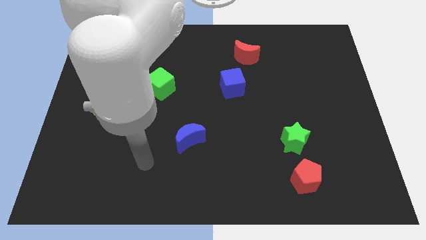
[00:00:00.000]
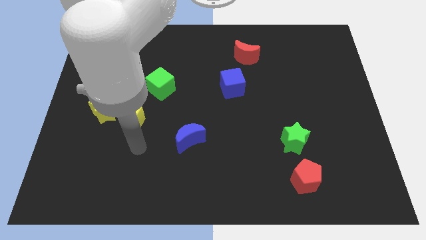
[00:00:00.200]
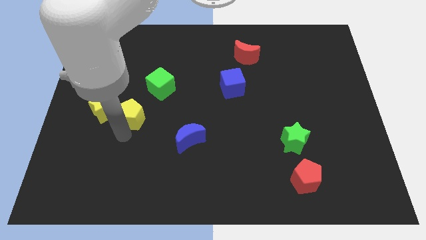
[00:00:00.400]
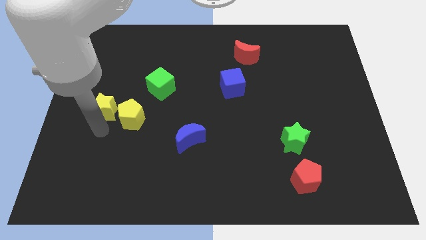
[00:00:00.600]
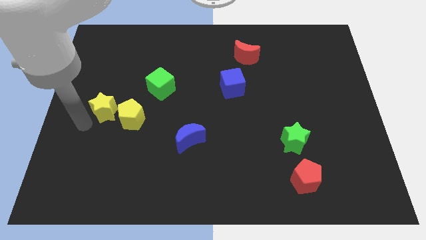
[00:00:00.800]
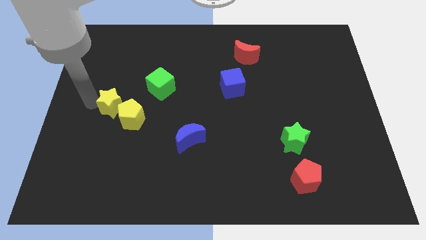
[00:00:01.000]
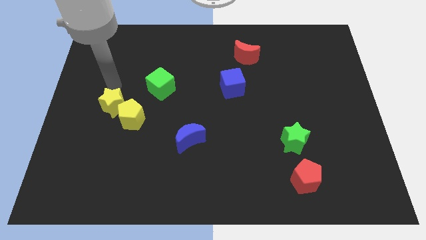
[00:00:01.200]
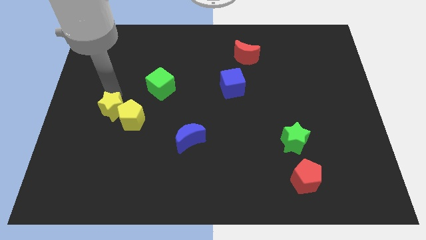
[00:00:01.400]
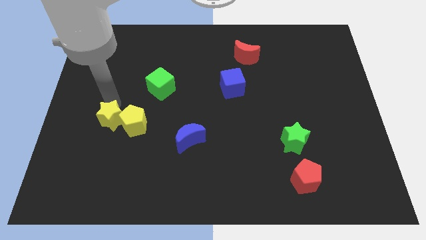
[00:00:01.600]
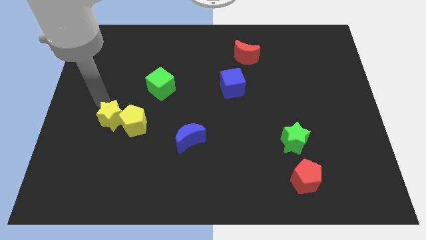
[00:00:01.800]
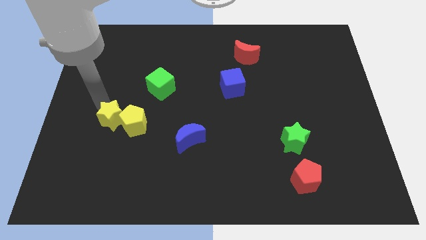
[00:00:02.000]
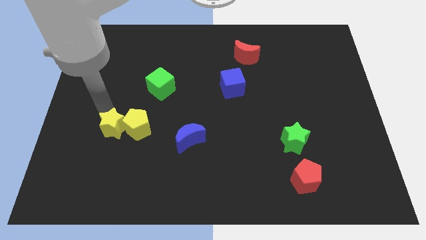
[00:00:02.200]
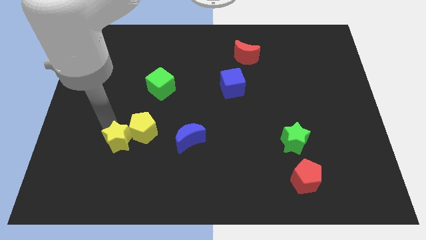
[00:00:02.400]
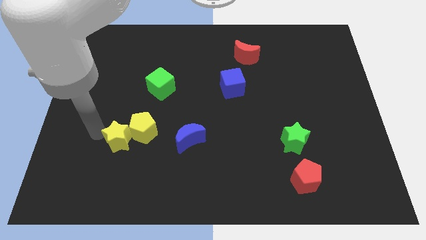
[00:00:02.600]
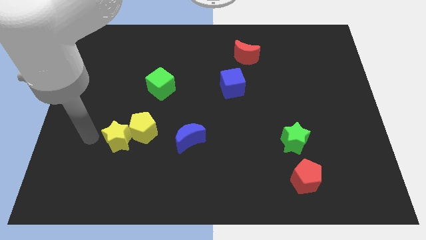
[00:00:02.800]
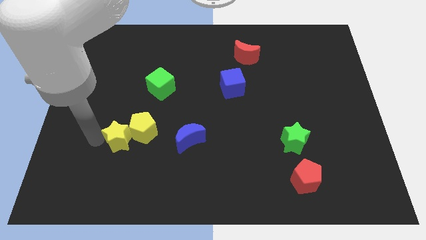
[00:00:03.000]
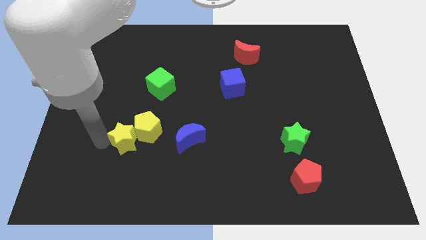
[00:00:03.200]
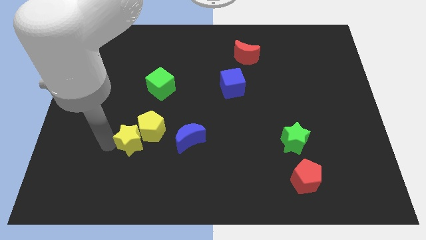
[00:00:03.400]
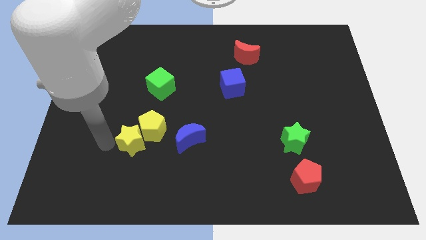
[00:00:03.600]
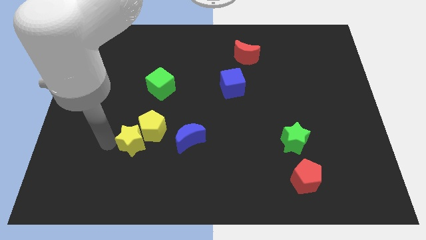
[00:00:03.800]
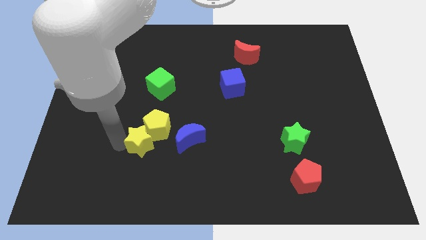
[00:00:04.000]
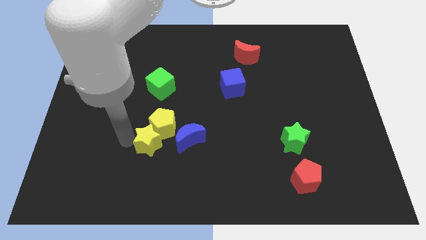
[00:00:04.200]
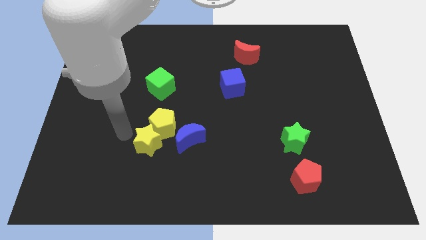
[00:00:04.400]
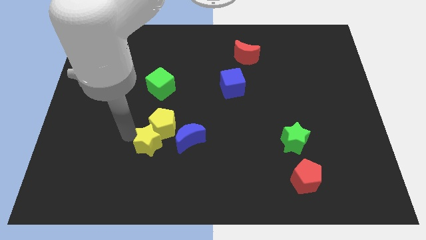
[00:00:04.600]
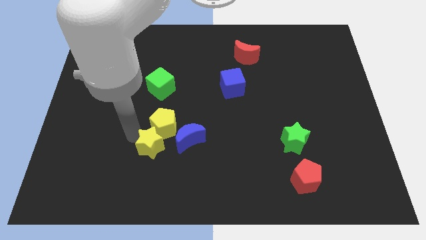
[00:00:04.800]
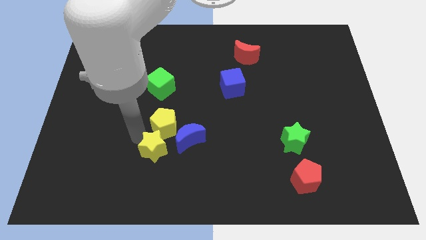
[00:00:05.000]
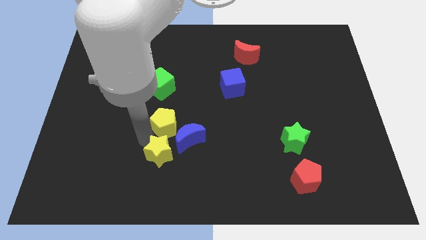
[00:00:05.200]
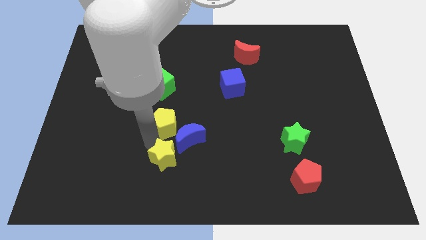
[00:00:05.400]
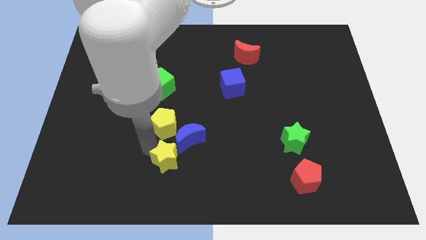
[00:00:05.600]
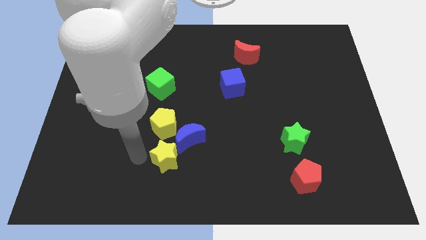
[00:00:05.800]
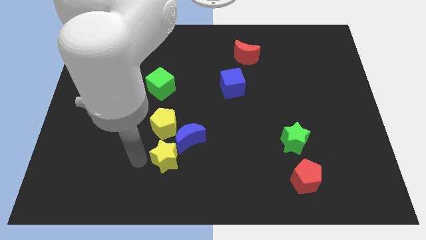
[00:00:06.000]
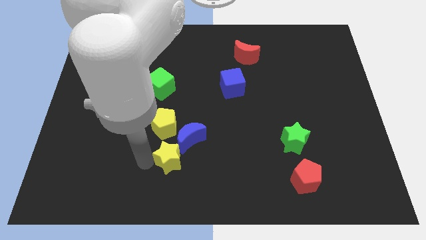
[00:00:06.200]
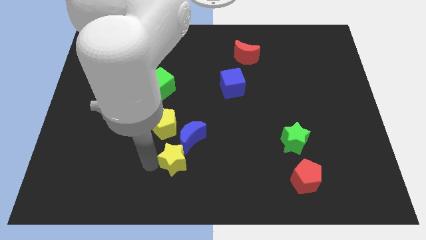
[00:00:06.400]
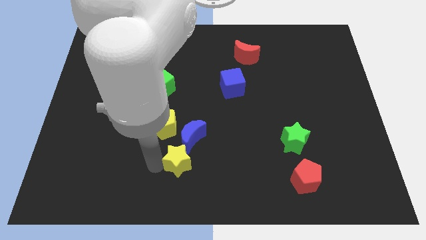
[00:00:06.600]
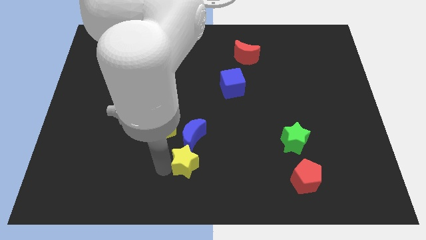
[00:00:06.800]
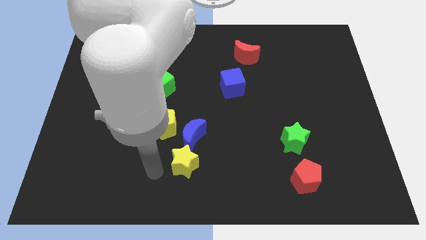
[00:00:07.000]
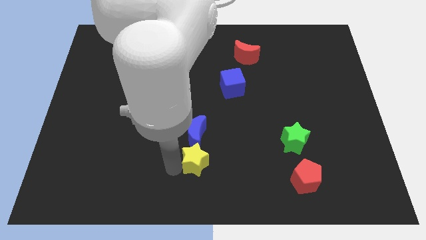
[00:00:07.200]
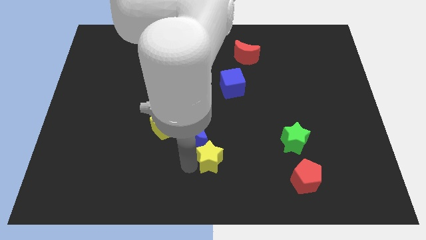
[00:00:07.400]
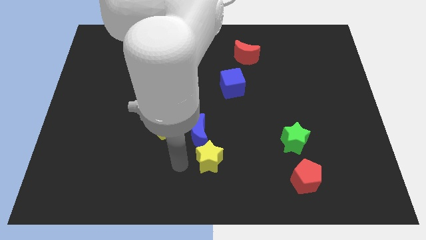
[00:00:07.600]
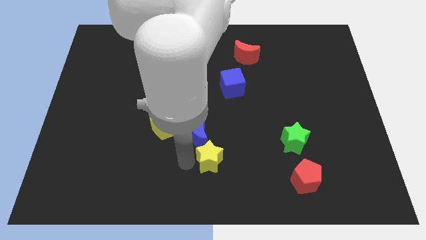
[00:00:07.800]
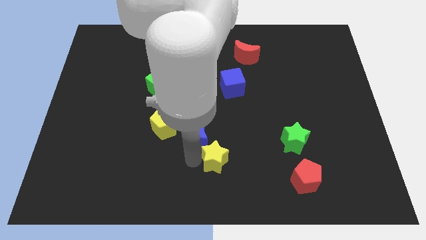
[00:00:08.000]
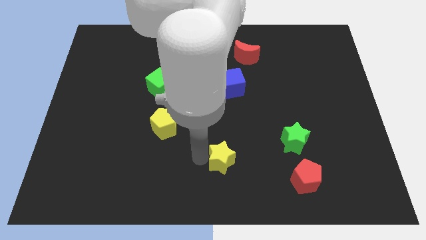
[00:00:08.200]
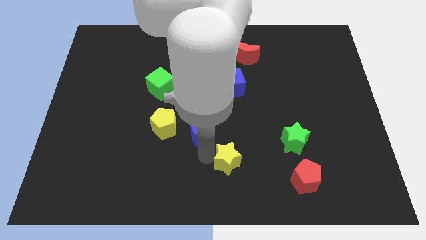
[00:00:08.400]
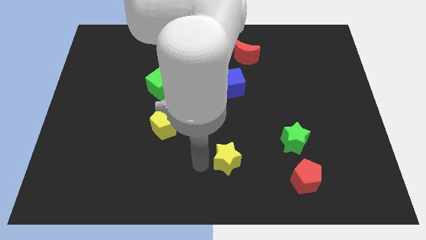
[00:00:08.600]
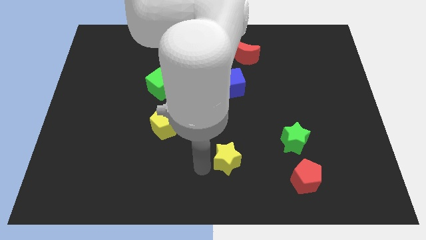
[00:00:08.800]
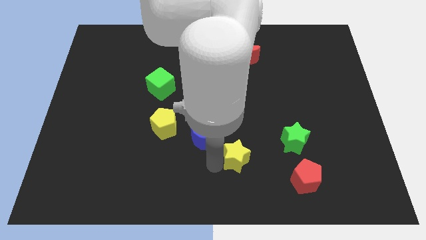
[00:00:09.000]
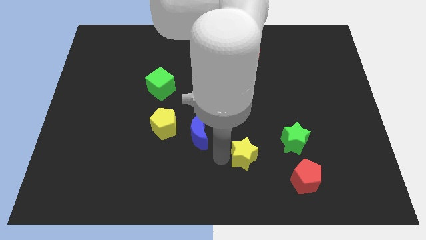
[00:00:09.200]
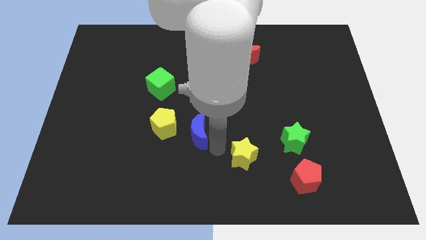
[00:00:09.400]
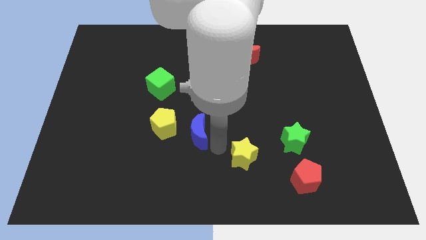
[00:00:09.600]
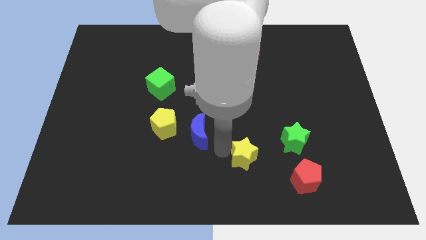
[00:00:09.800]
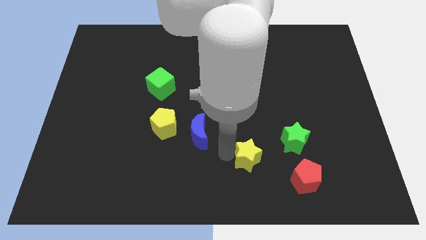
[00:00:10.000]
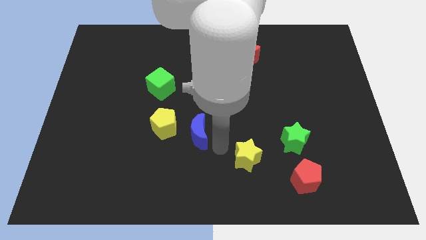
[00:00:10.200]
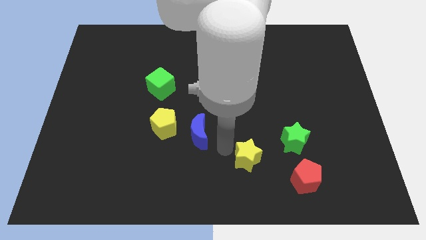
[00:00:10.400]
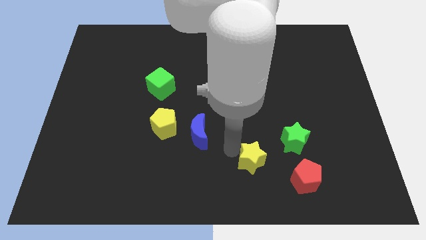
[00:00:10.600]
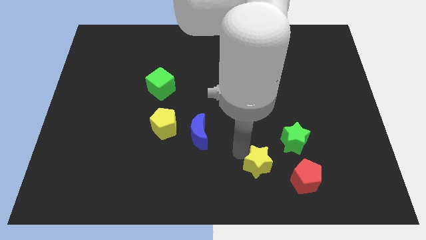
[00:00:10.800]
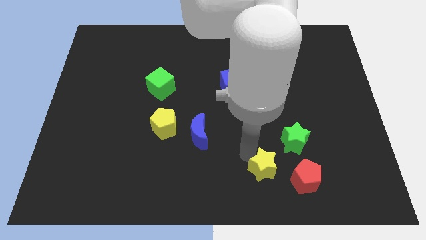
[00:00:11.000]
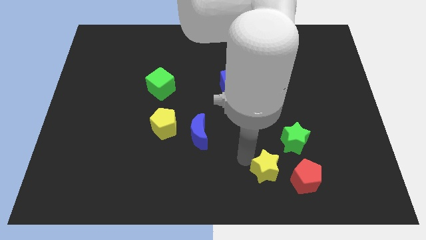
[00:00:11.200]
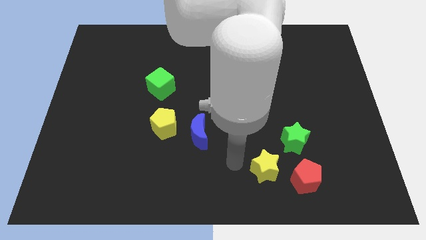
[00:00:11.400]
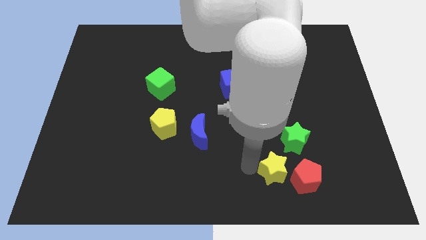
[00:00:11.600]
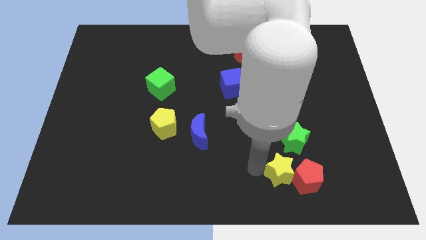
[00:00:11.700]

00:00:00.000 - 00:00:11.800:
slide the yellow star towards the red pentagon

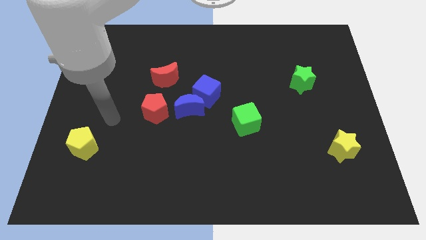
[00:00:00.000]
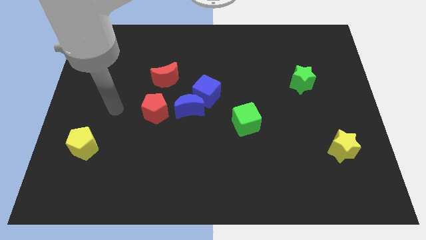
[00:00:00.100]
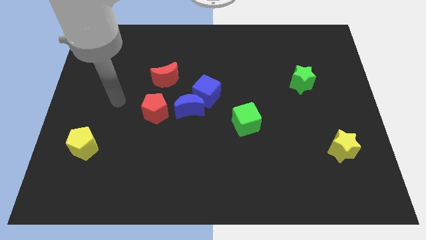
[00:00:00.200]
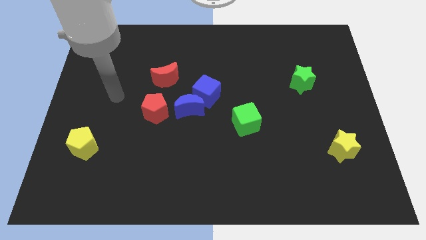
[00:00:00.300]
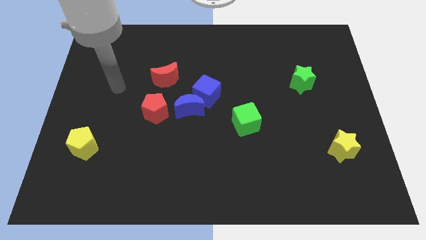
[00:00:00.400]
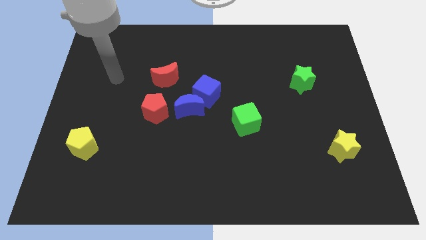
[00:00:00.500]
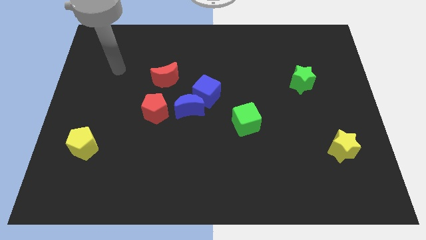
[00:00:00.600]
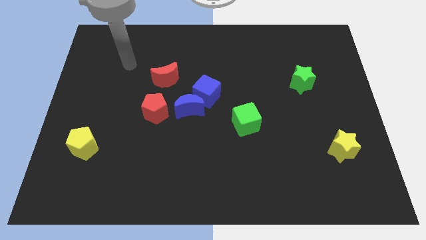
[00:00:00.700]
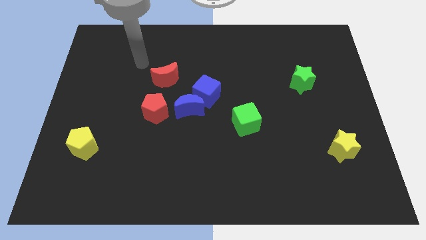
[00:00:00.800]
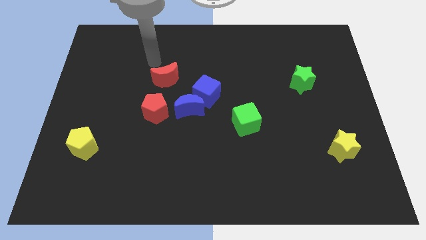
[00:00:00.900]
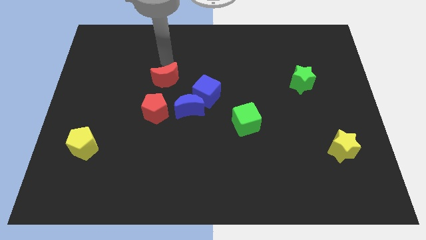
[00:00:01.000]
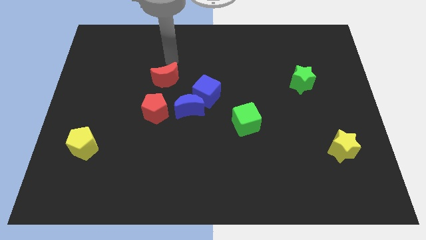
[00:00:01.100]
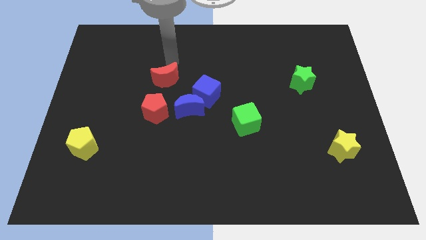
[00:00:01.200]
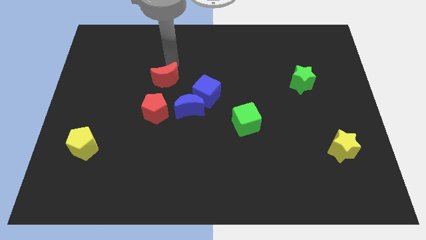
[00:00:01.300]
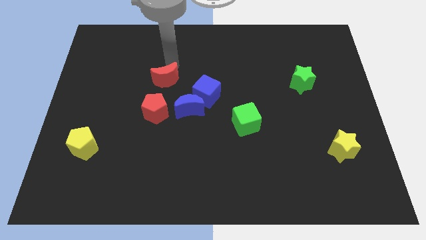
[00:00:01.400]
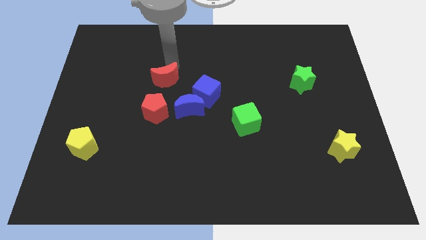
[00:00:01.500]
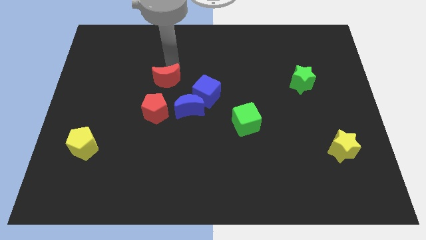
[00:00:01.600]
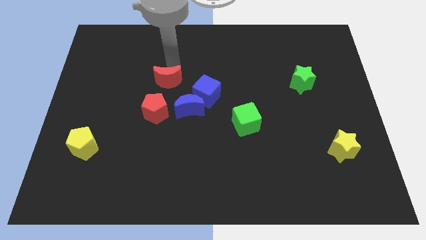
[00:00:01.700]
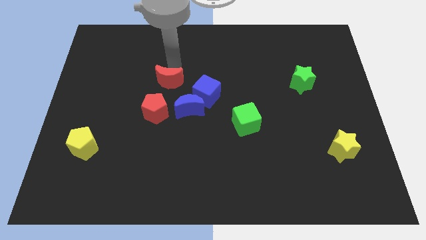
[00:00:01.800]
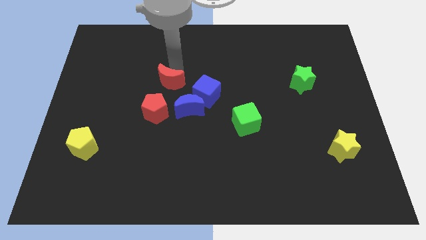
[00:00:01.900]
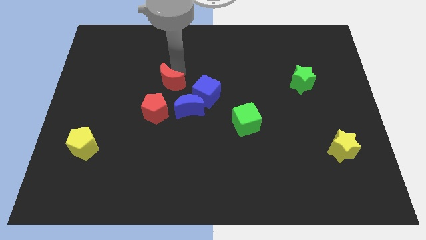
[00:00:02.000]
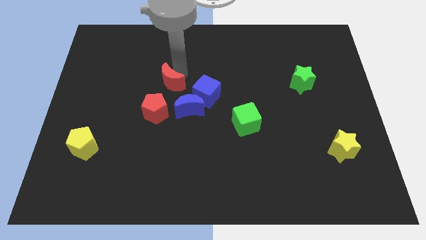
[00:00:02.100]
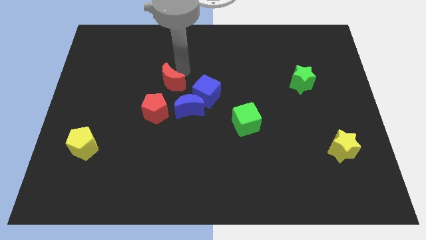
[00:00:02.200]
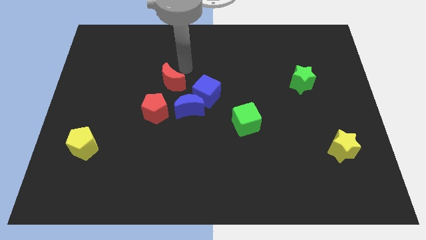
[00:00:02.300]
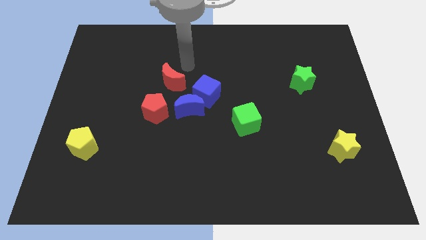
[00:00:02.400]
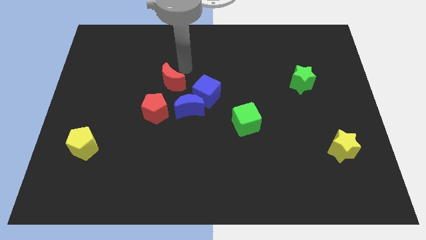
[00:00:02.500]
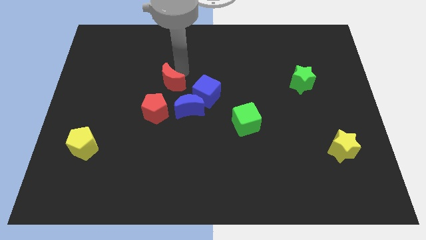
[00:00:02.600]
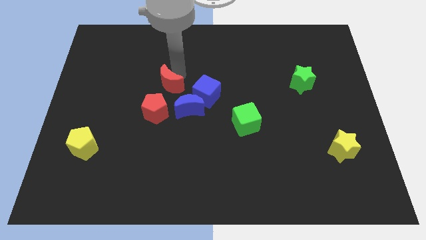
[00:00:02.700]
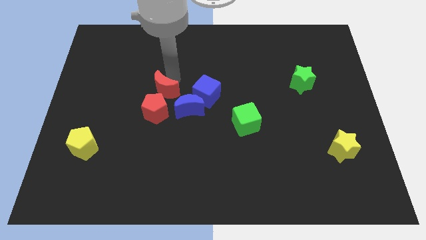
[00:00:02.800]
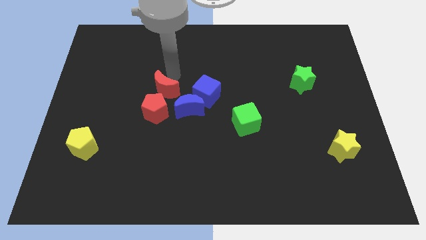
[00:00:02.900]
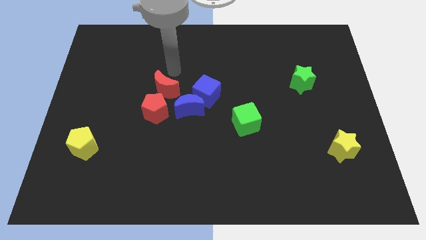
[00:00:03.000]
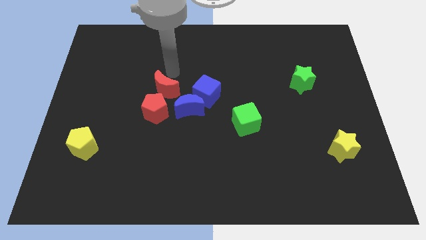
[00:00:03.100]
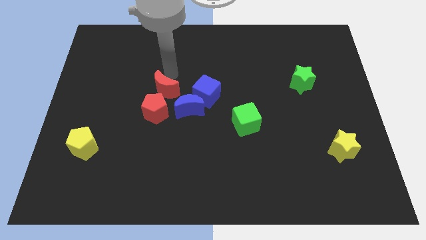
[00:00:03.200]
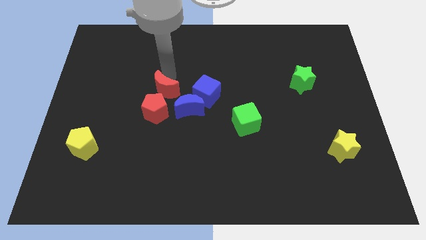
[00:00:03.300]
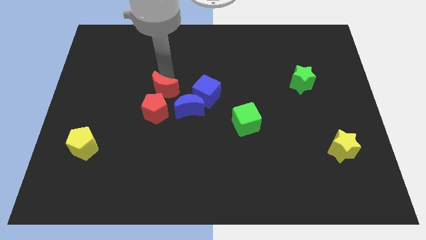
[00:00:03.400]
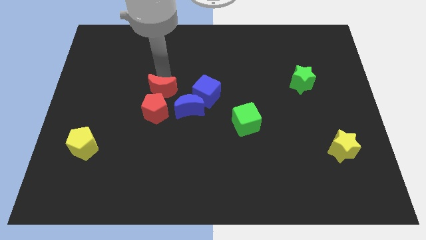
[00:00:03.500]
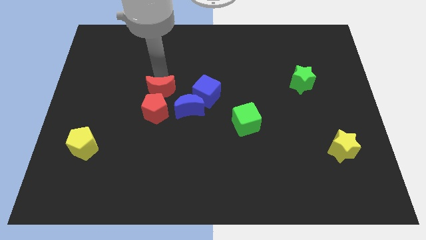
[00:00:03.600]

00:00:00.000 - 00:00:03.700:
move the red moon close to the red pentagon
